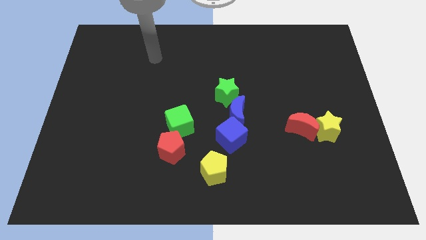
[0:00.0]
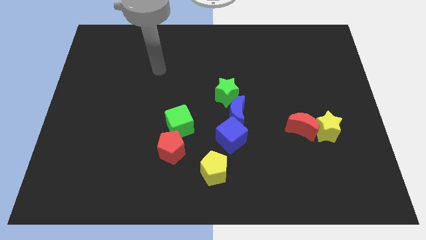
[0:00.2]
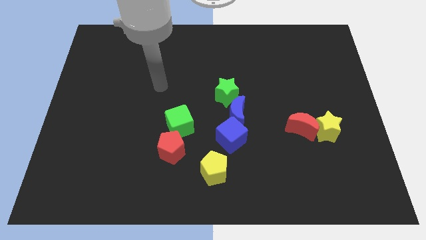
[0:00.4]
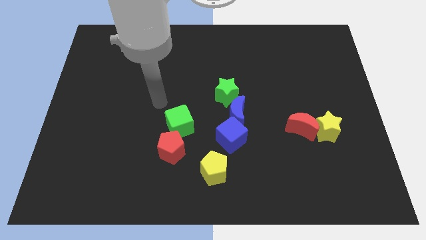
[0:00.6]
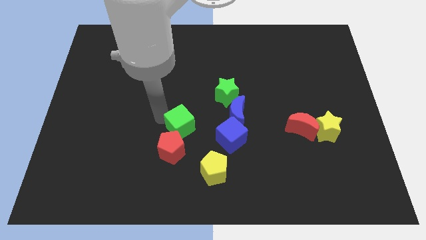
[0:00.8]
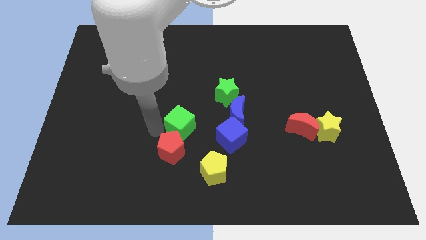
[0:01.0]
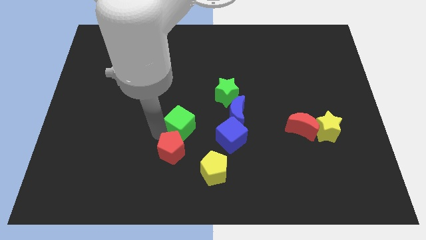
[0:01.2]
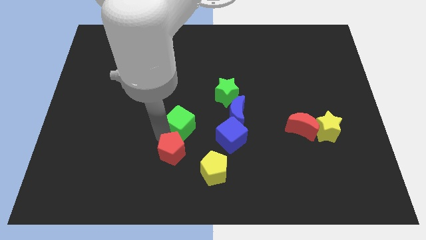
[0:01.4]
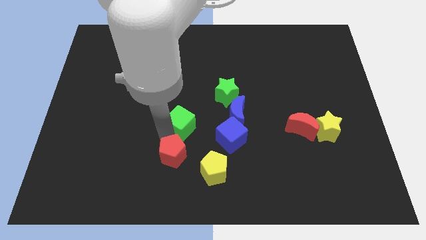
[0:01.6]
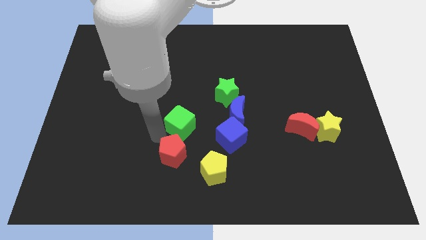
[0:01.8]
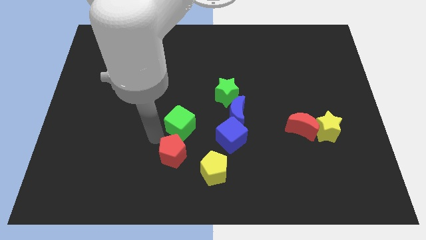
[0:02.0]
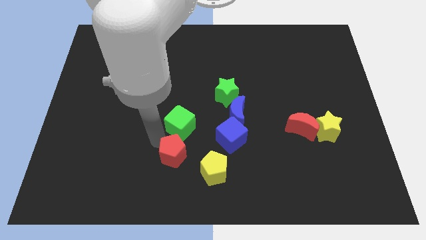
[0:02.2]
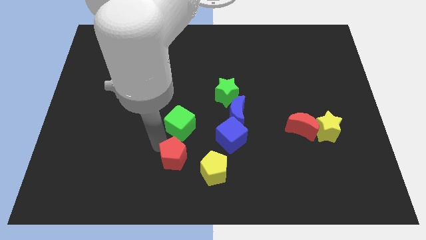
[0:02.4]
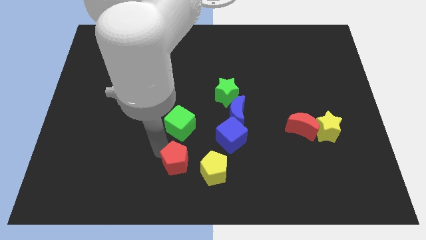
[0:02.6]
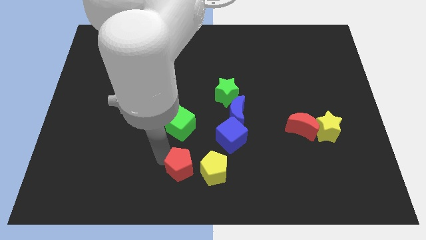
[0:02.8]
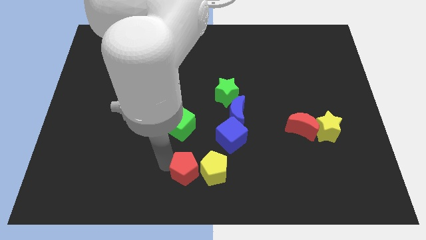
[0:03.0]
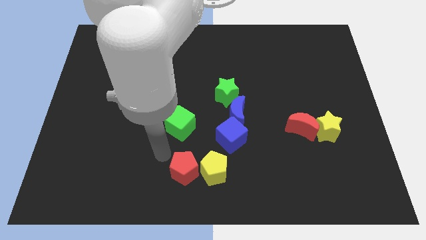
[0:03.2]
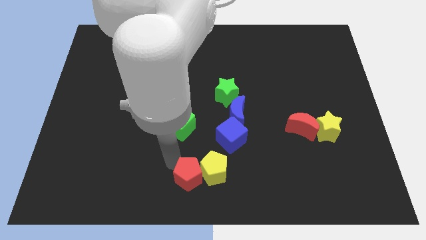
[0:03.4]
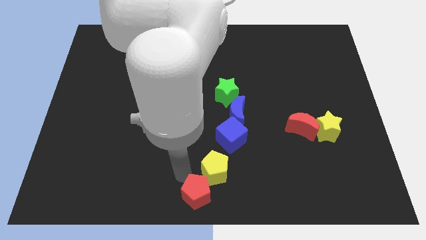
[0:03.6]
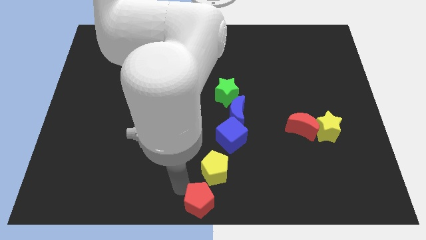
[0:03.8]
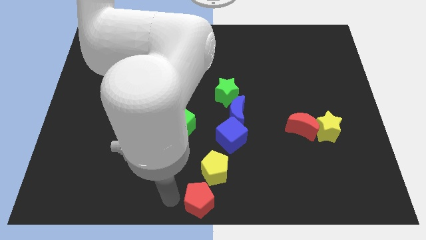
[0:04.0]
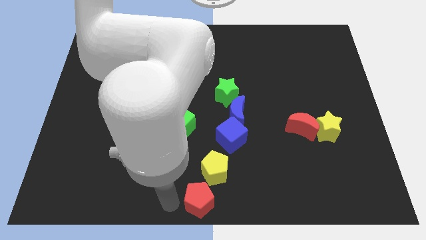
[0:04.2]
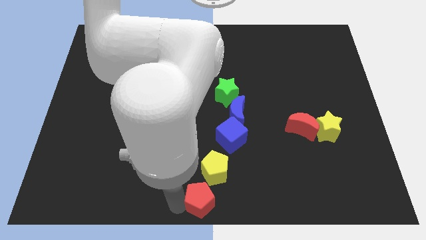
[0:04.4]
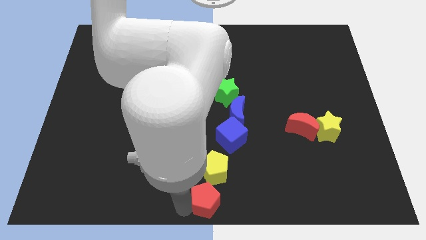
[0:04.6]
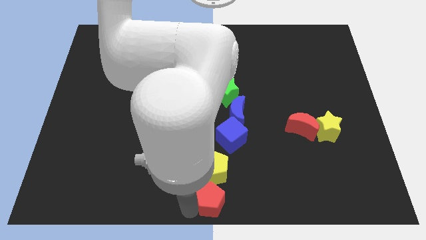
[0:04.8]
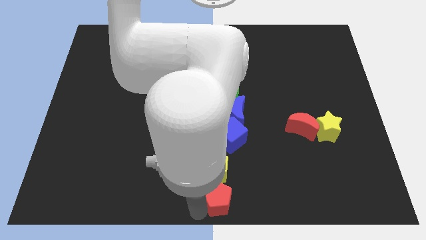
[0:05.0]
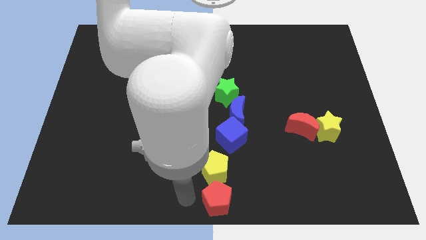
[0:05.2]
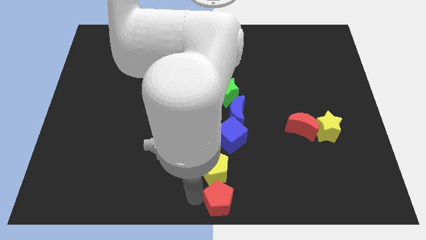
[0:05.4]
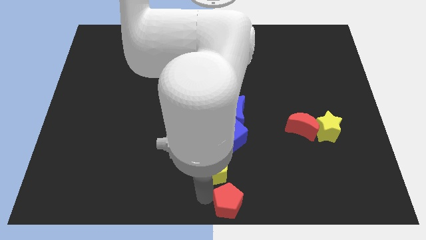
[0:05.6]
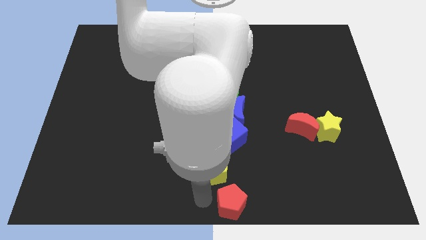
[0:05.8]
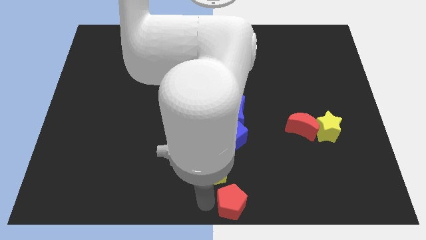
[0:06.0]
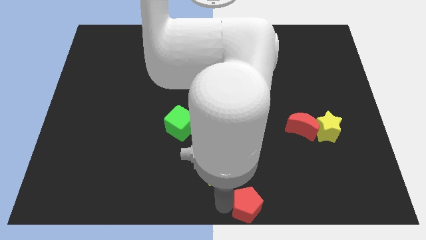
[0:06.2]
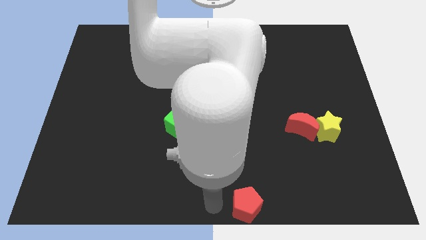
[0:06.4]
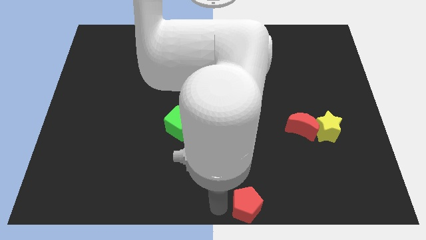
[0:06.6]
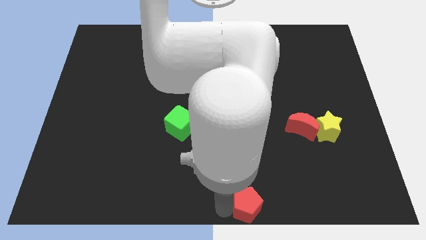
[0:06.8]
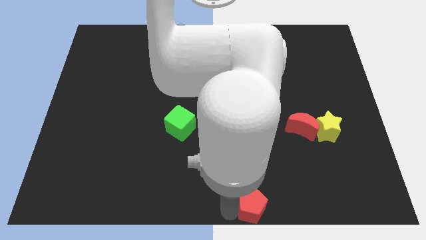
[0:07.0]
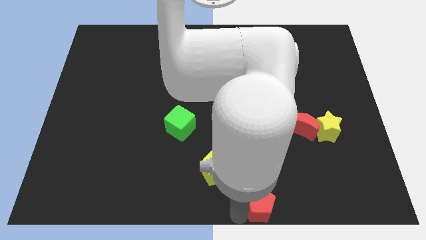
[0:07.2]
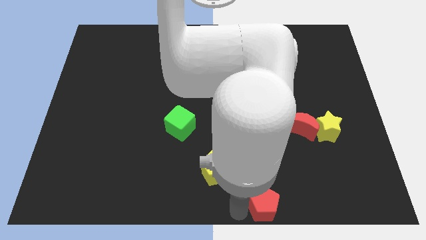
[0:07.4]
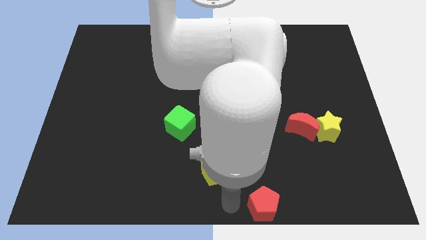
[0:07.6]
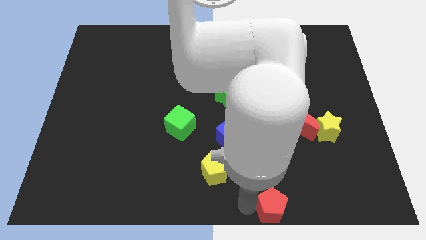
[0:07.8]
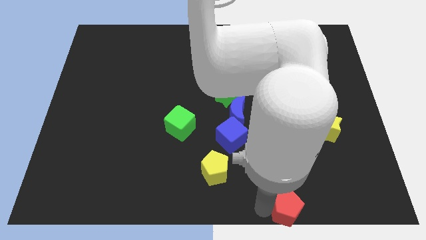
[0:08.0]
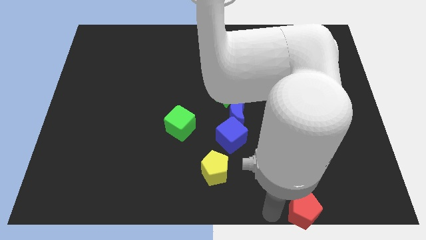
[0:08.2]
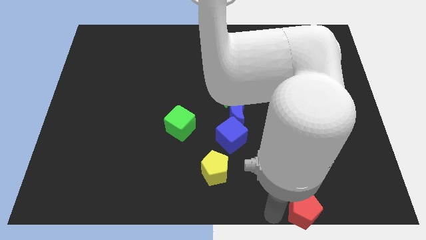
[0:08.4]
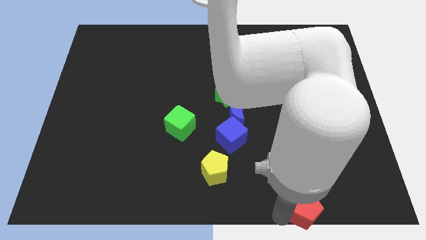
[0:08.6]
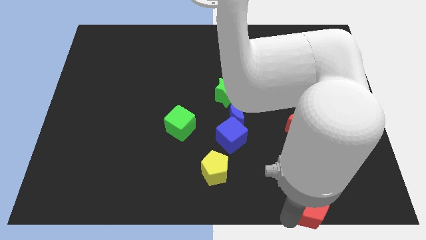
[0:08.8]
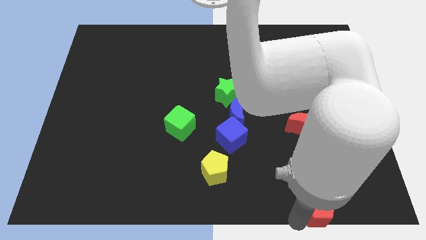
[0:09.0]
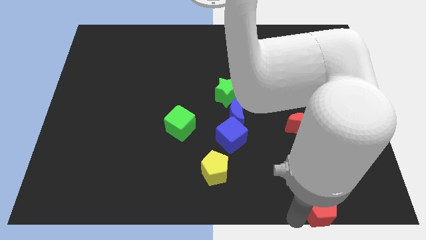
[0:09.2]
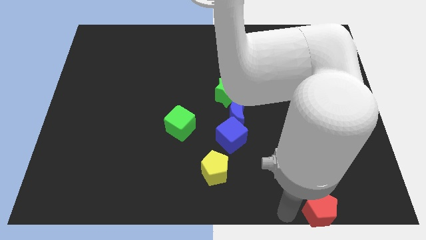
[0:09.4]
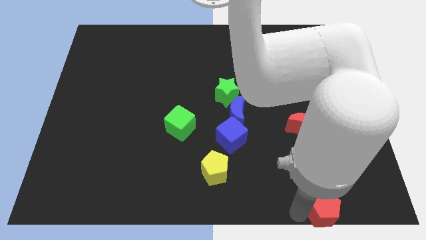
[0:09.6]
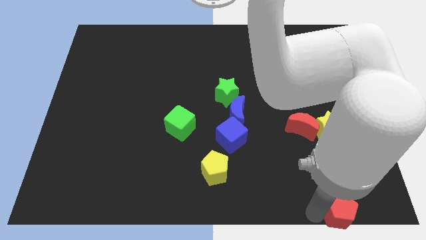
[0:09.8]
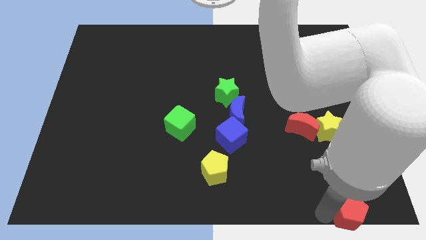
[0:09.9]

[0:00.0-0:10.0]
slide the red pentagon to the lower right corner

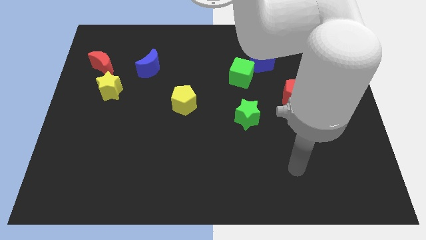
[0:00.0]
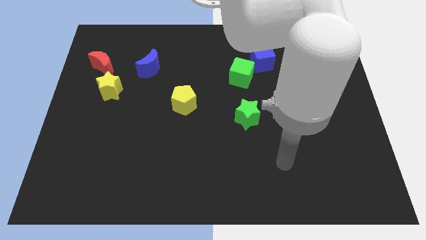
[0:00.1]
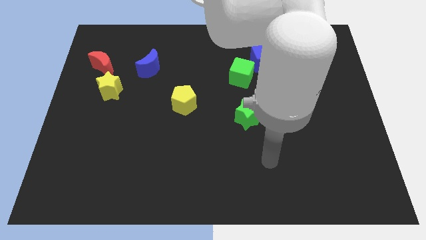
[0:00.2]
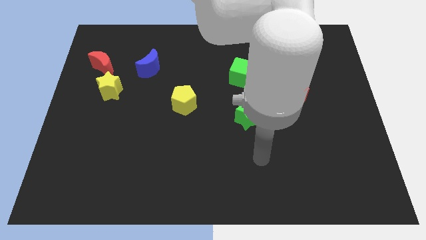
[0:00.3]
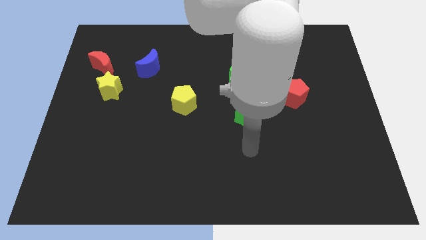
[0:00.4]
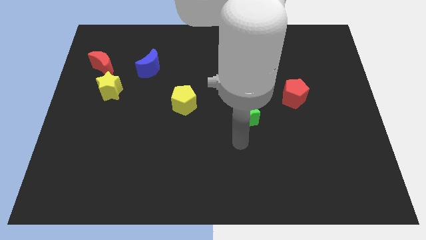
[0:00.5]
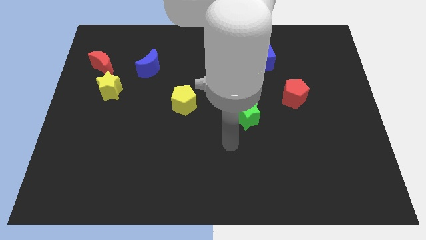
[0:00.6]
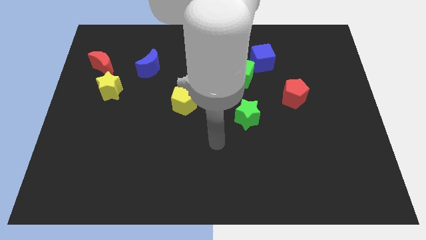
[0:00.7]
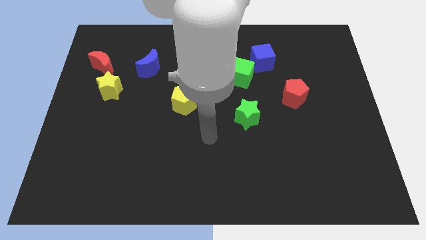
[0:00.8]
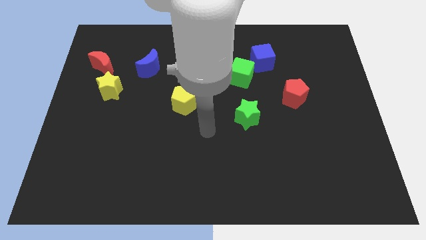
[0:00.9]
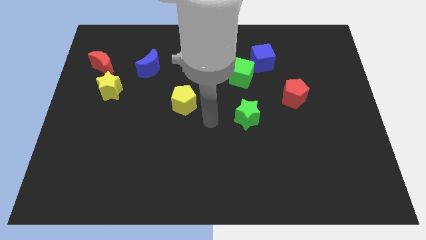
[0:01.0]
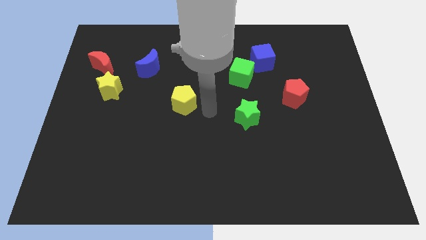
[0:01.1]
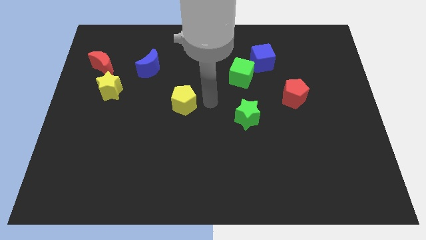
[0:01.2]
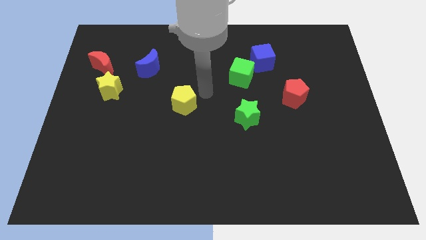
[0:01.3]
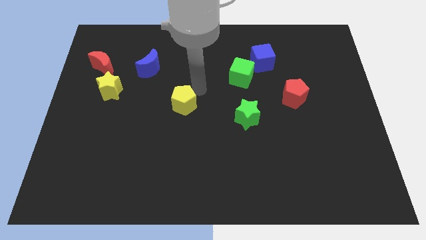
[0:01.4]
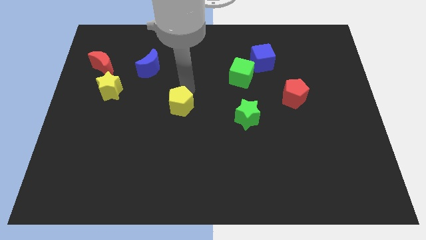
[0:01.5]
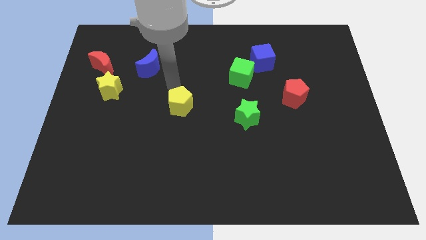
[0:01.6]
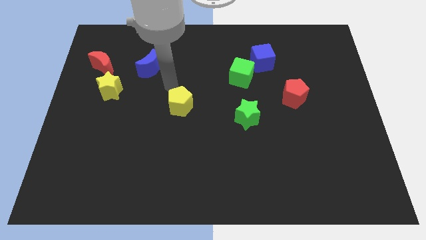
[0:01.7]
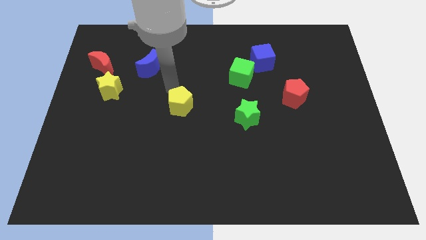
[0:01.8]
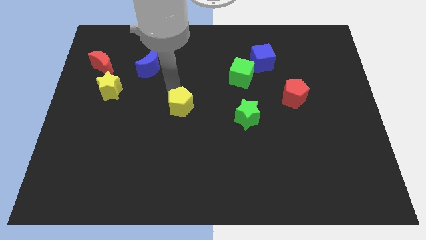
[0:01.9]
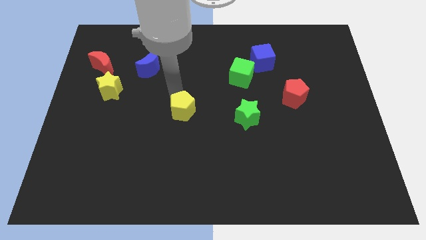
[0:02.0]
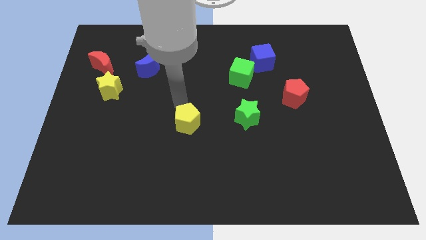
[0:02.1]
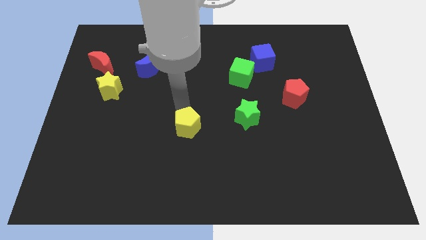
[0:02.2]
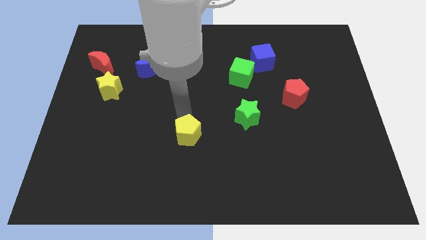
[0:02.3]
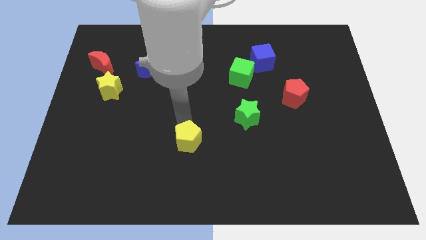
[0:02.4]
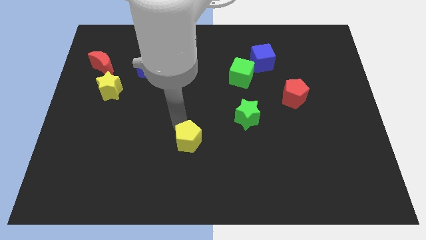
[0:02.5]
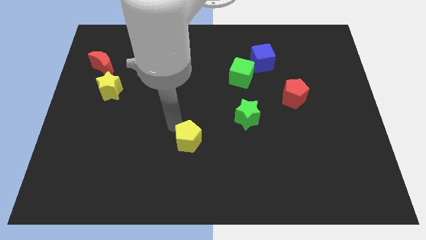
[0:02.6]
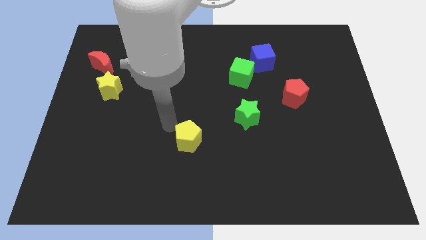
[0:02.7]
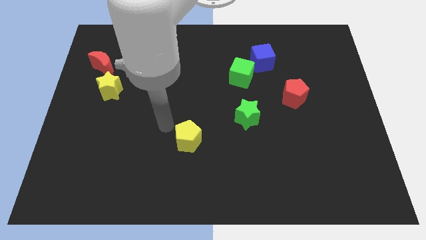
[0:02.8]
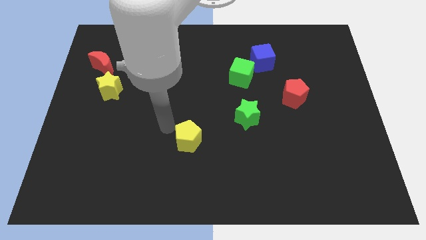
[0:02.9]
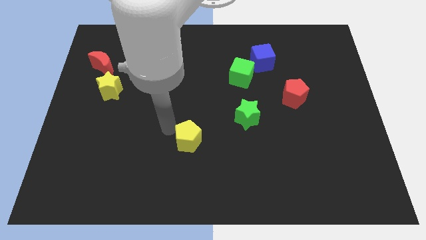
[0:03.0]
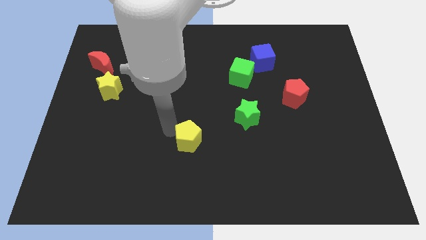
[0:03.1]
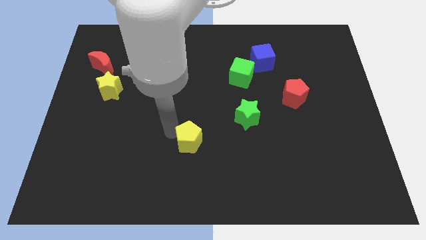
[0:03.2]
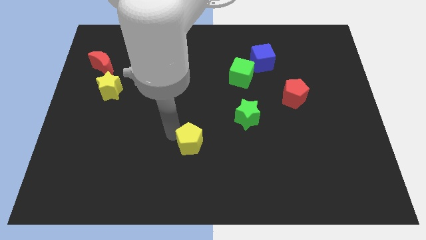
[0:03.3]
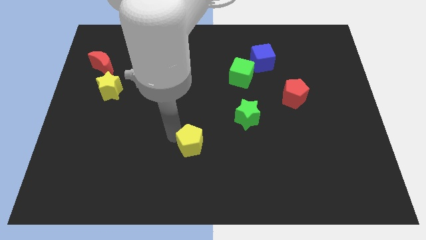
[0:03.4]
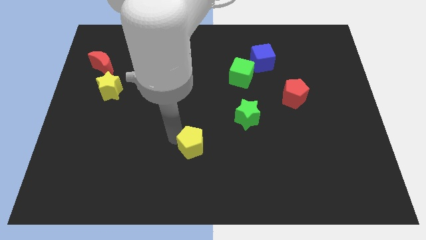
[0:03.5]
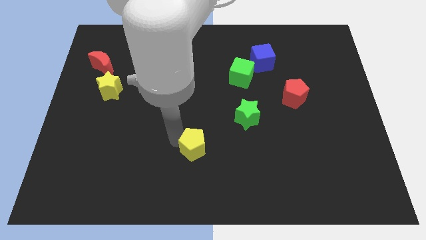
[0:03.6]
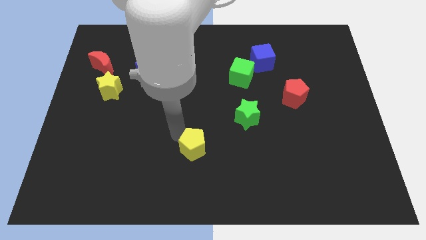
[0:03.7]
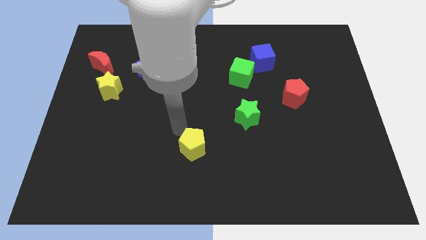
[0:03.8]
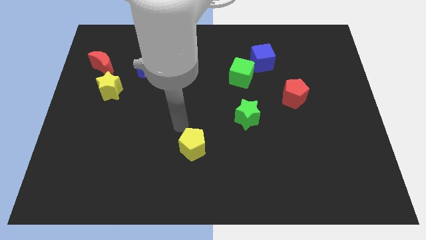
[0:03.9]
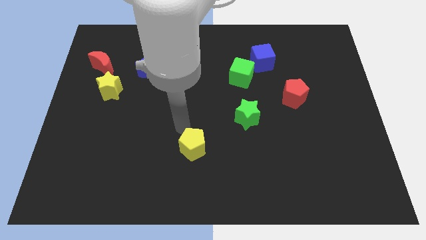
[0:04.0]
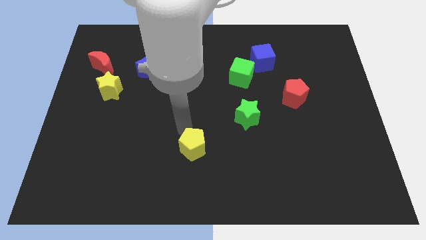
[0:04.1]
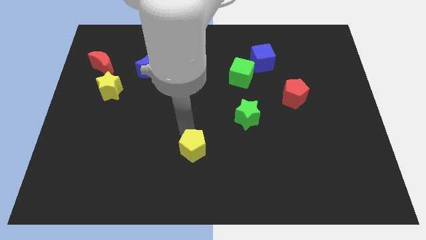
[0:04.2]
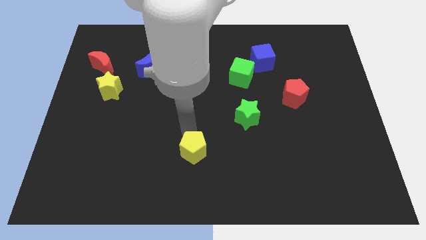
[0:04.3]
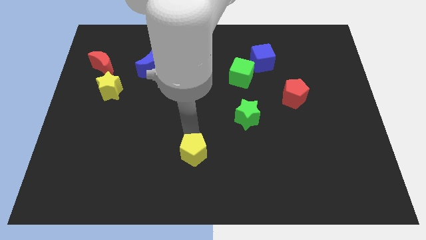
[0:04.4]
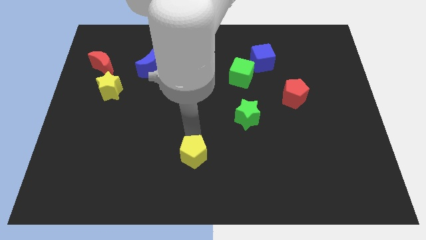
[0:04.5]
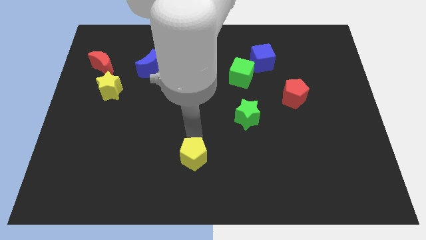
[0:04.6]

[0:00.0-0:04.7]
put the yellow pentagon to the bottom side
